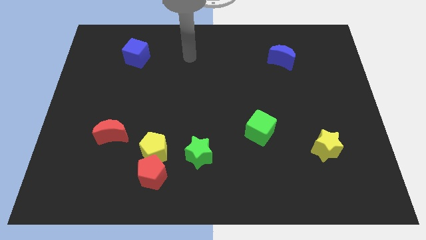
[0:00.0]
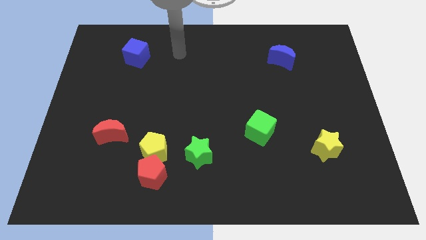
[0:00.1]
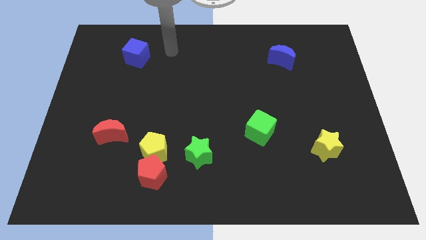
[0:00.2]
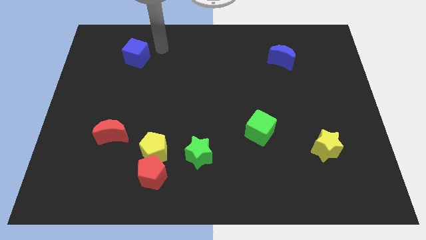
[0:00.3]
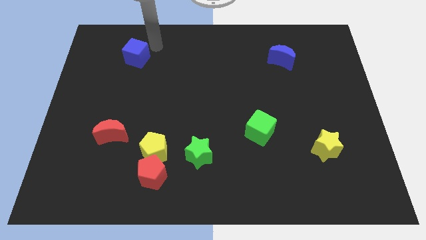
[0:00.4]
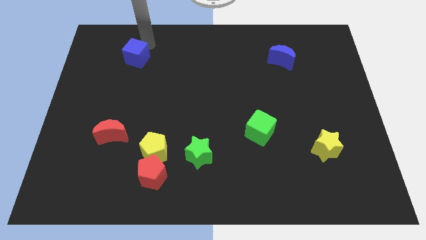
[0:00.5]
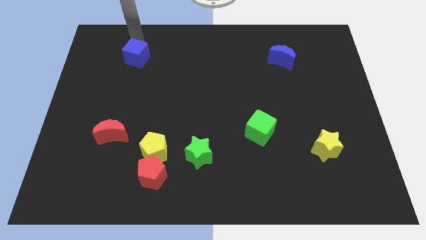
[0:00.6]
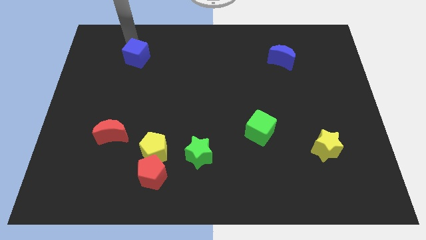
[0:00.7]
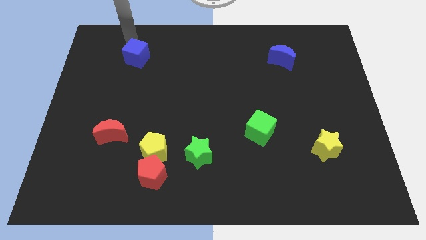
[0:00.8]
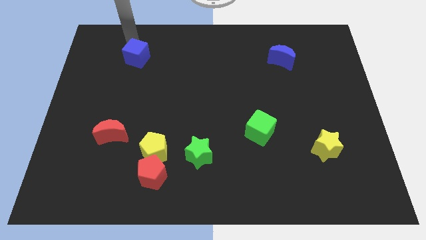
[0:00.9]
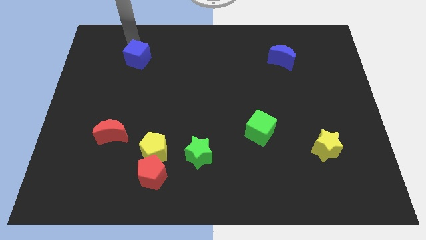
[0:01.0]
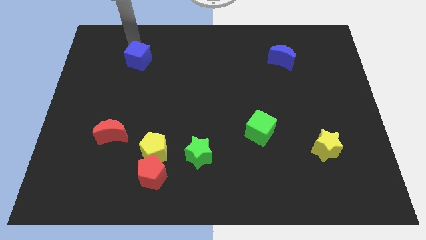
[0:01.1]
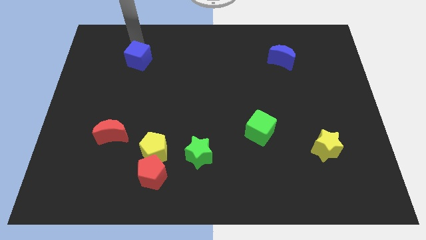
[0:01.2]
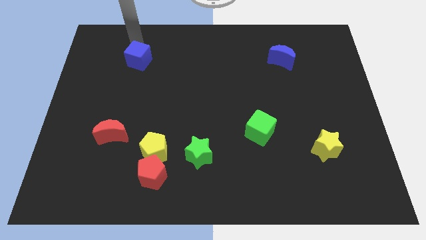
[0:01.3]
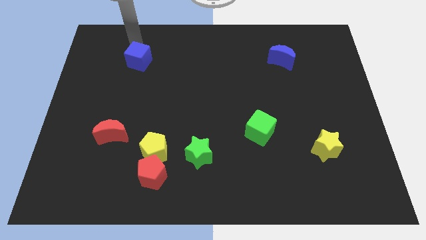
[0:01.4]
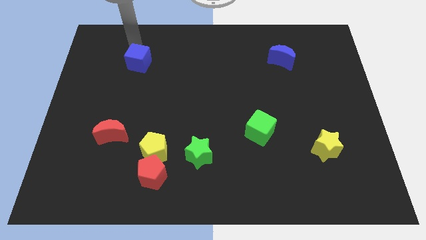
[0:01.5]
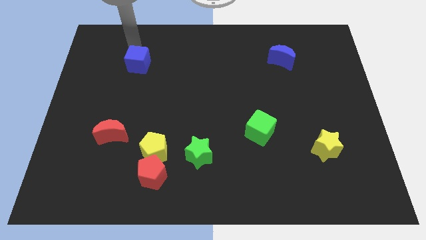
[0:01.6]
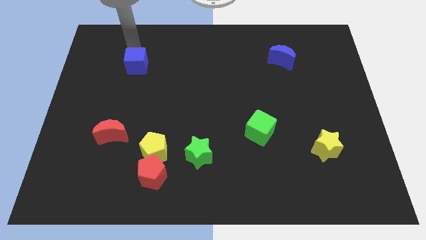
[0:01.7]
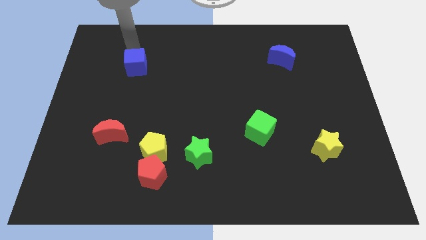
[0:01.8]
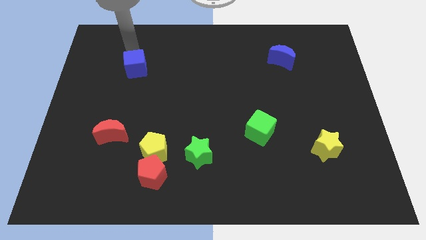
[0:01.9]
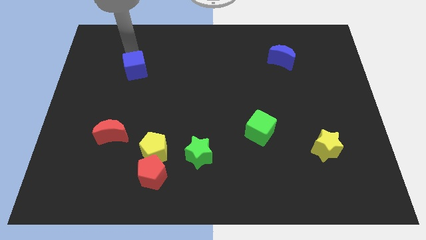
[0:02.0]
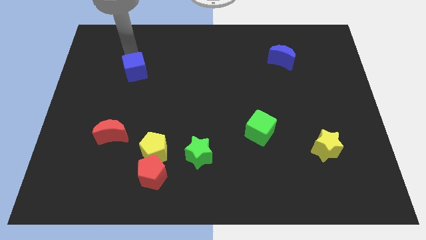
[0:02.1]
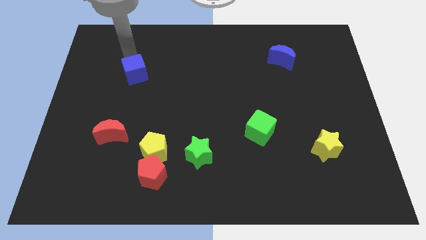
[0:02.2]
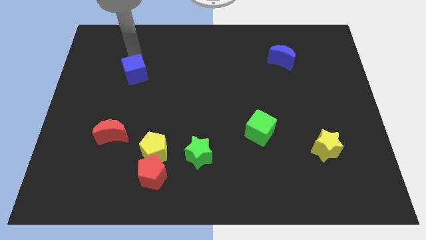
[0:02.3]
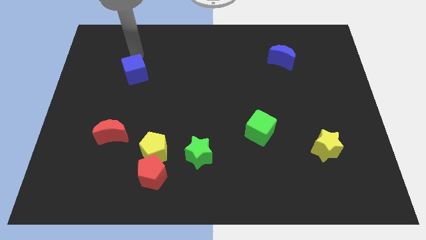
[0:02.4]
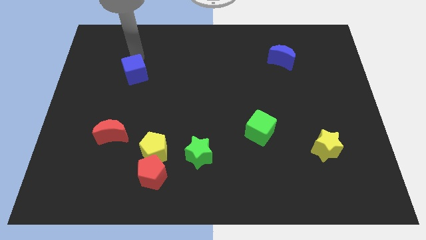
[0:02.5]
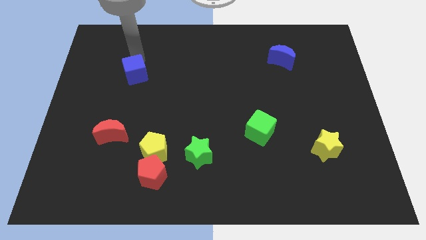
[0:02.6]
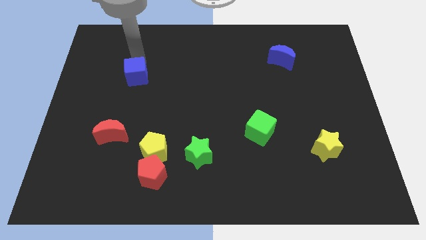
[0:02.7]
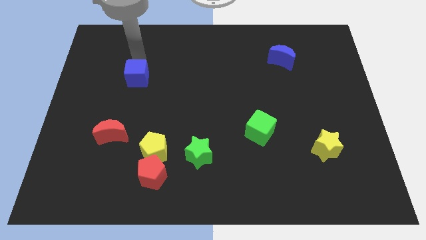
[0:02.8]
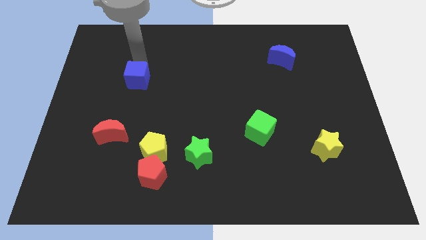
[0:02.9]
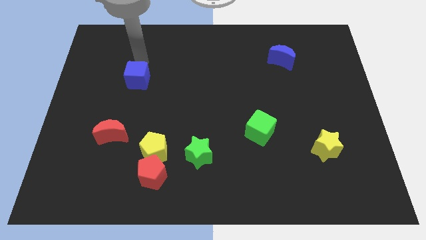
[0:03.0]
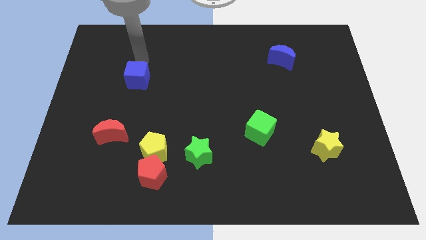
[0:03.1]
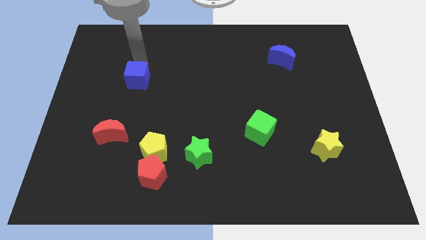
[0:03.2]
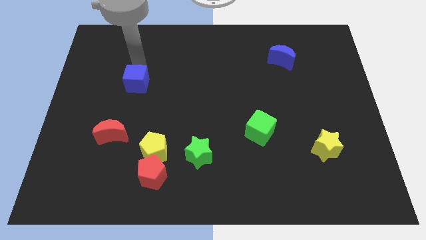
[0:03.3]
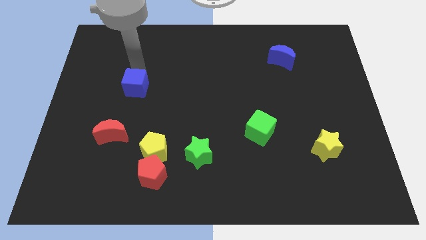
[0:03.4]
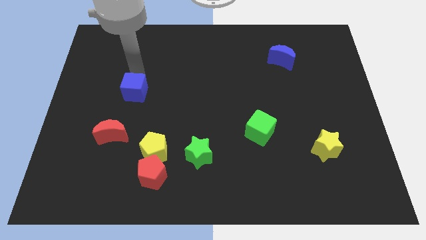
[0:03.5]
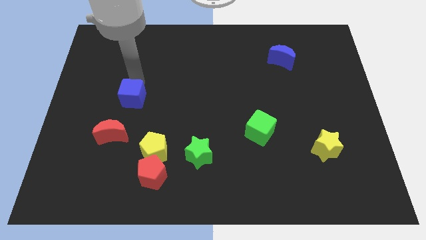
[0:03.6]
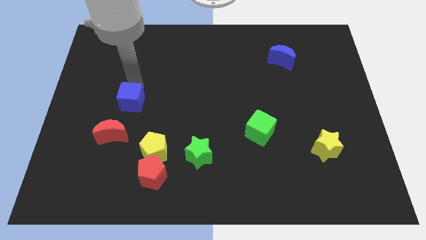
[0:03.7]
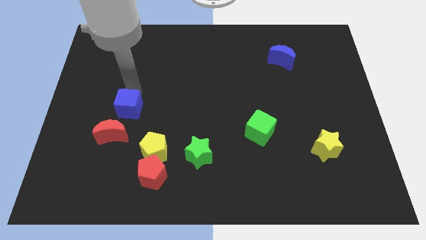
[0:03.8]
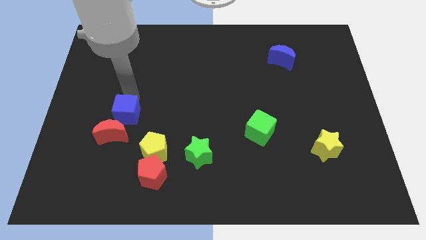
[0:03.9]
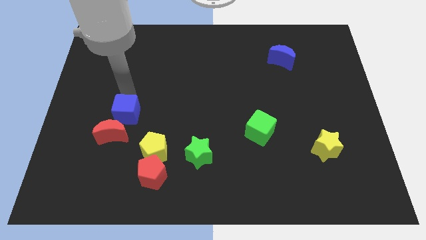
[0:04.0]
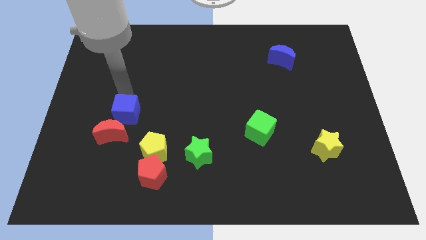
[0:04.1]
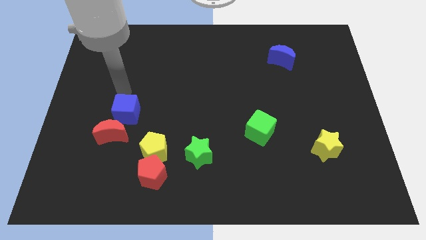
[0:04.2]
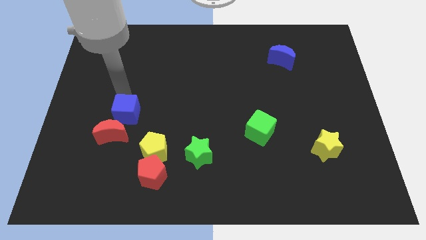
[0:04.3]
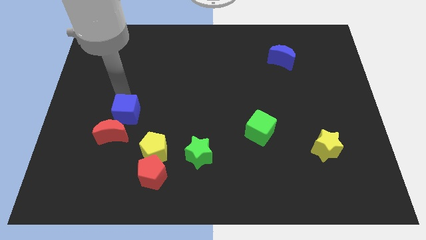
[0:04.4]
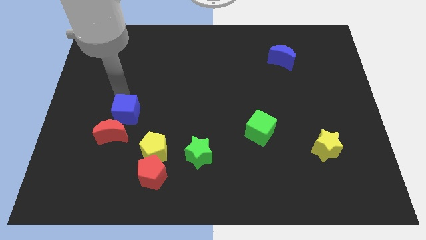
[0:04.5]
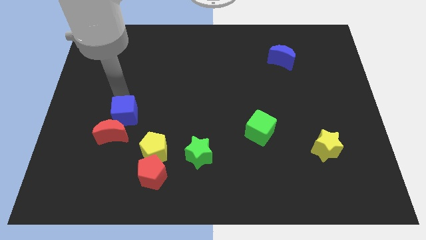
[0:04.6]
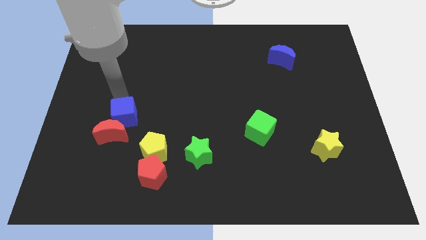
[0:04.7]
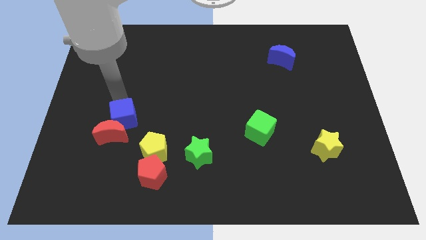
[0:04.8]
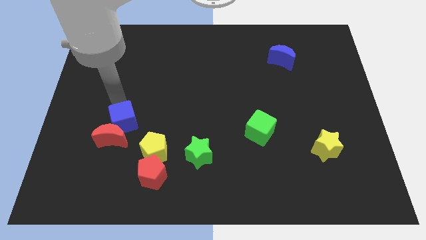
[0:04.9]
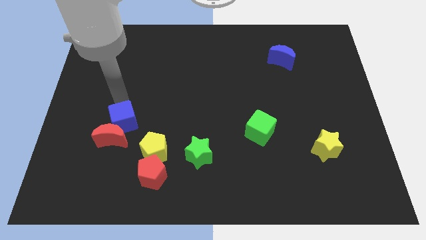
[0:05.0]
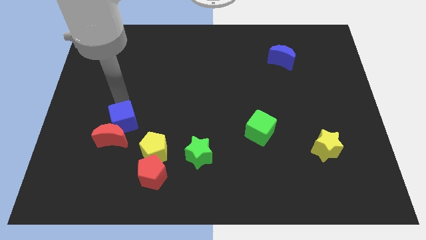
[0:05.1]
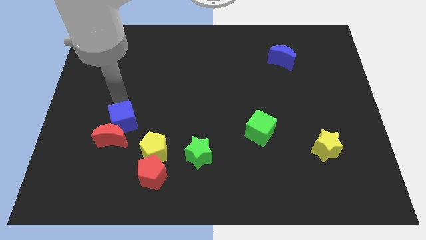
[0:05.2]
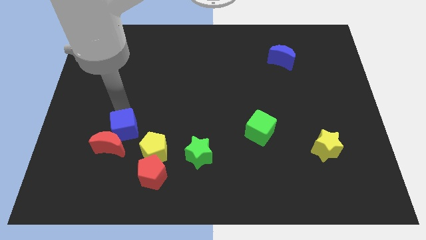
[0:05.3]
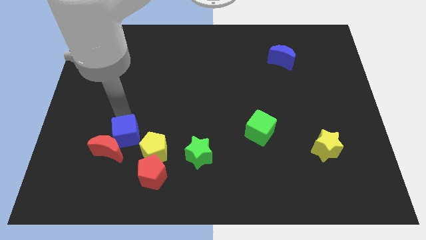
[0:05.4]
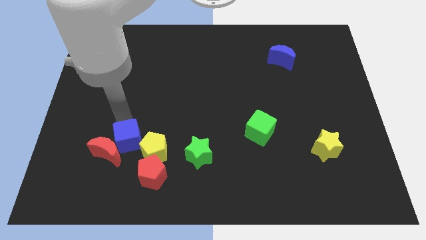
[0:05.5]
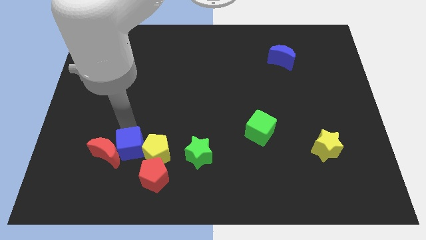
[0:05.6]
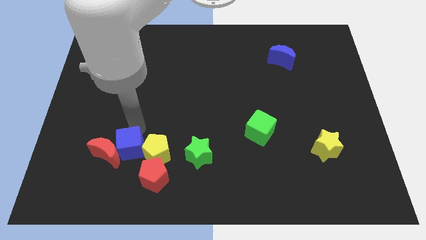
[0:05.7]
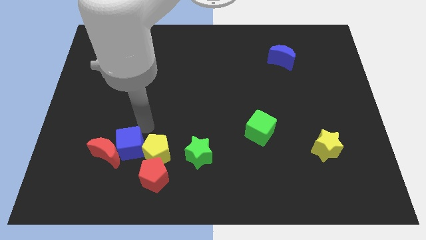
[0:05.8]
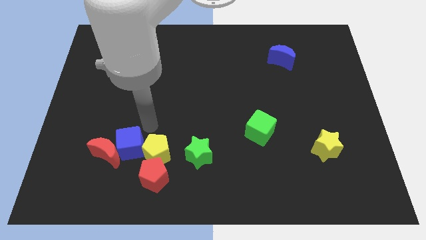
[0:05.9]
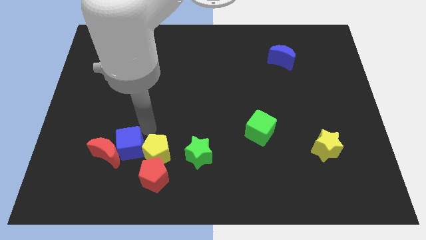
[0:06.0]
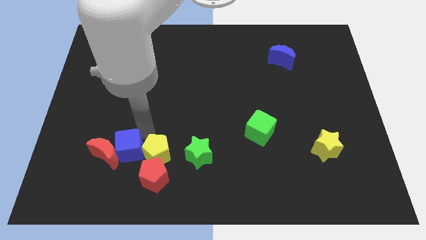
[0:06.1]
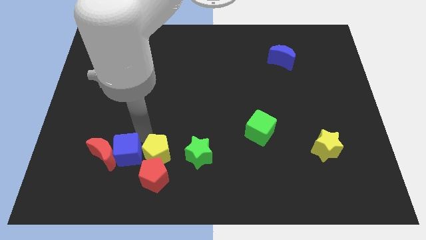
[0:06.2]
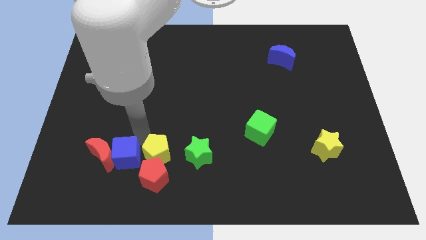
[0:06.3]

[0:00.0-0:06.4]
slide the blue cube just left of the red pentagon

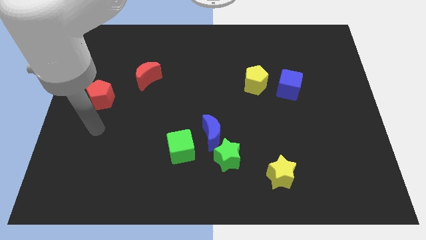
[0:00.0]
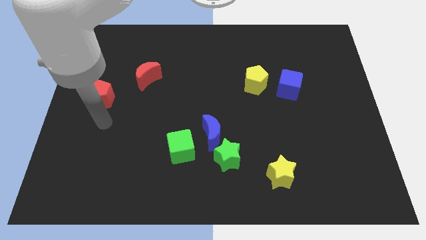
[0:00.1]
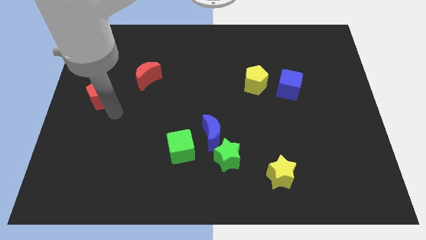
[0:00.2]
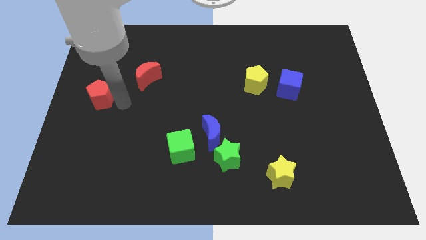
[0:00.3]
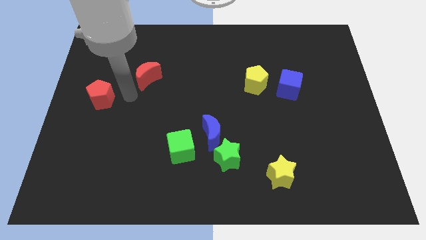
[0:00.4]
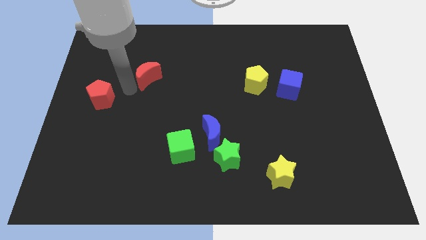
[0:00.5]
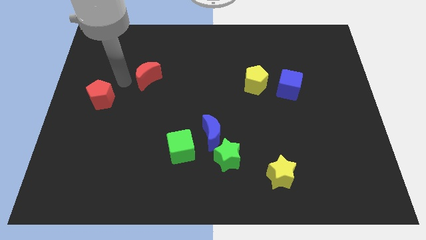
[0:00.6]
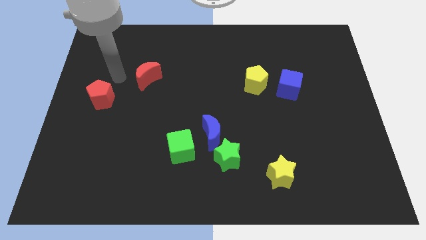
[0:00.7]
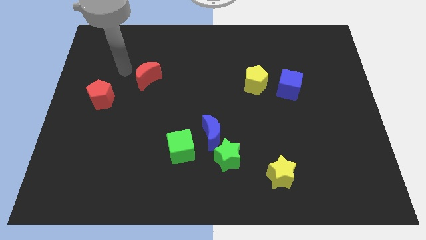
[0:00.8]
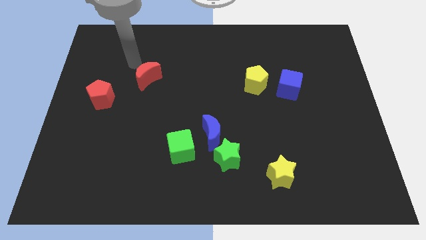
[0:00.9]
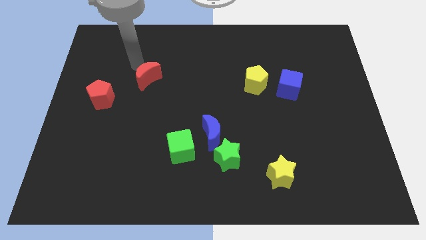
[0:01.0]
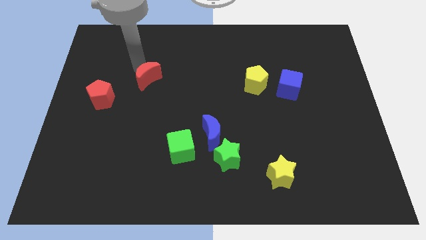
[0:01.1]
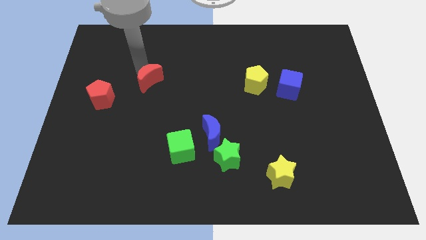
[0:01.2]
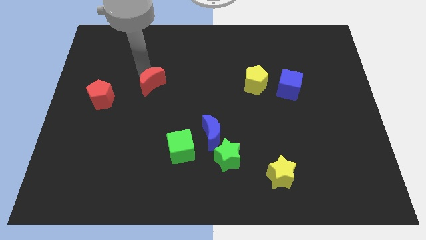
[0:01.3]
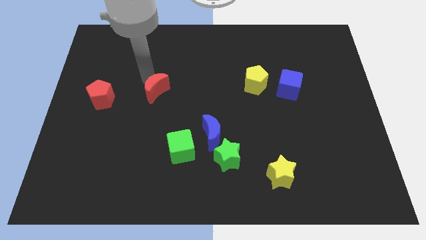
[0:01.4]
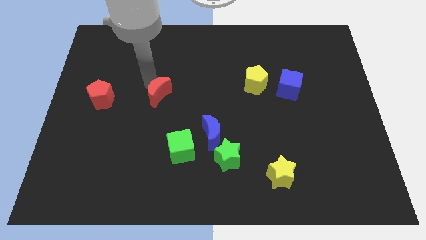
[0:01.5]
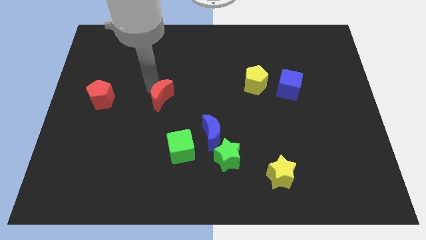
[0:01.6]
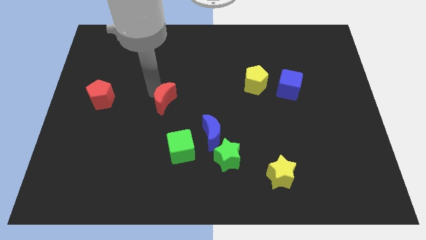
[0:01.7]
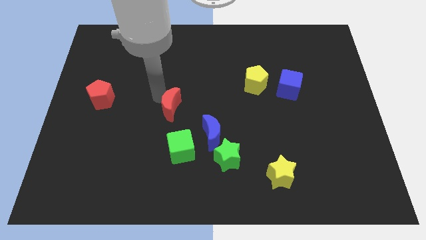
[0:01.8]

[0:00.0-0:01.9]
slide the red moon to the top left side of the blue moon
